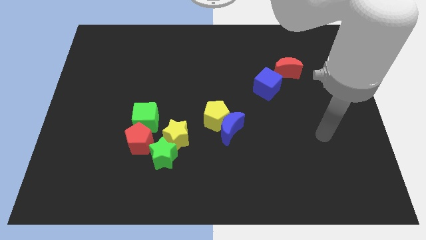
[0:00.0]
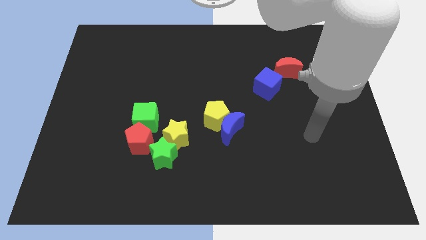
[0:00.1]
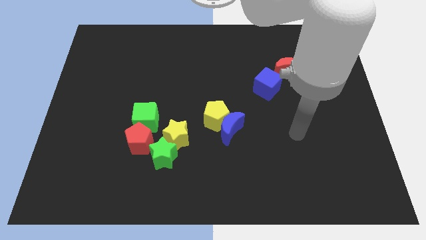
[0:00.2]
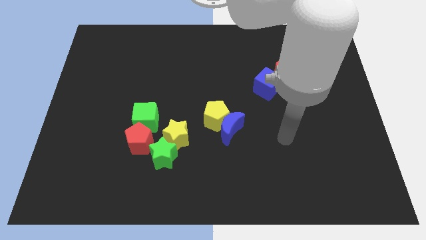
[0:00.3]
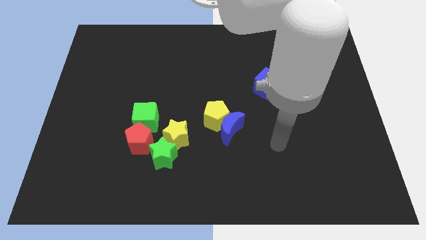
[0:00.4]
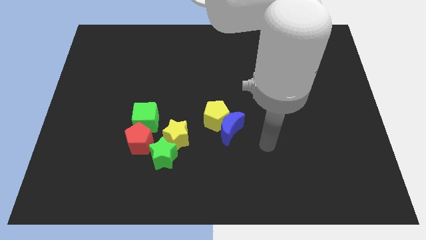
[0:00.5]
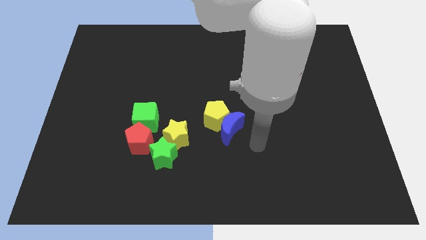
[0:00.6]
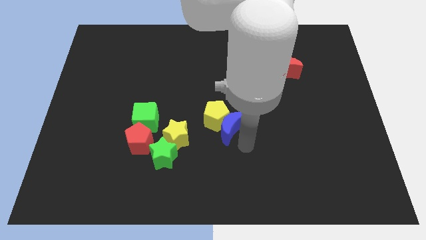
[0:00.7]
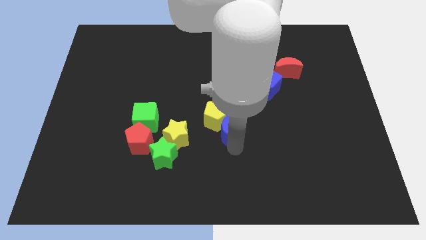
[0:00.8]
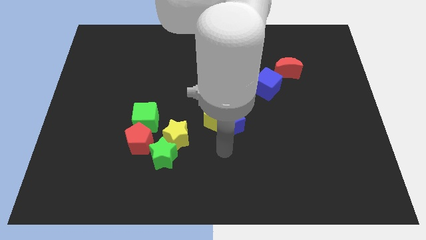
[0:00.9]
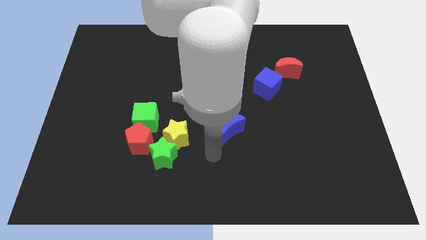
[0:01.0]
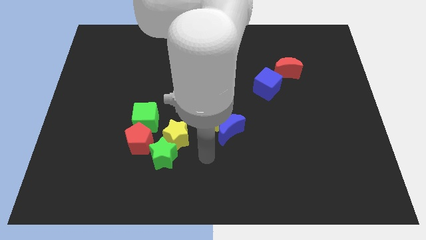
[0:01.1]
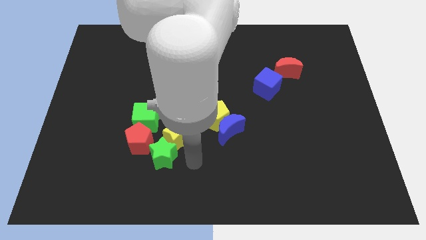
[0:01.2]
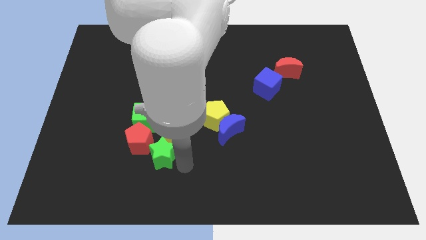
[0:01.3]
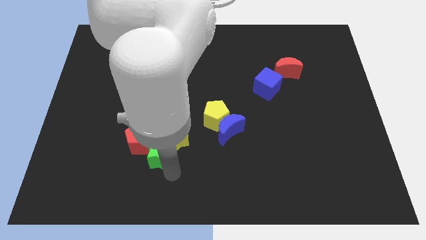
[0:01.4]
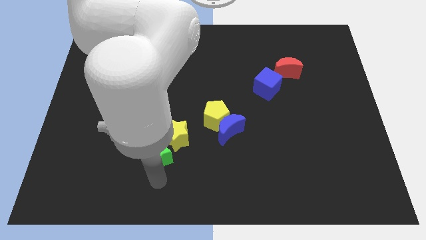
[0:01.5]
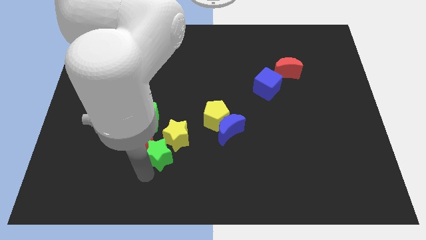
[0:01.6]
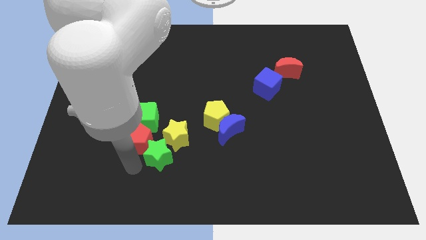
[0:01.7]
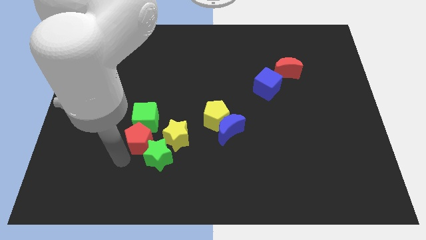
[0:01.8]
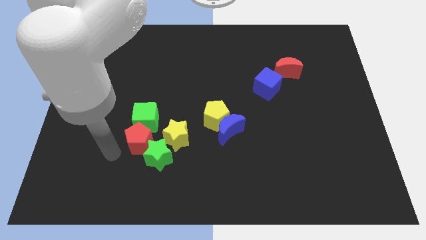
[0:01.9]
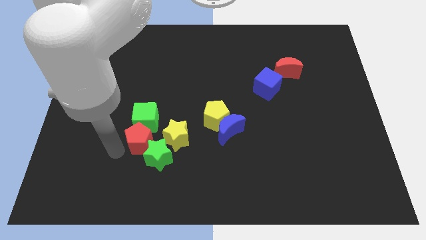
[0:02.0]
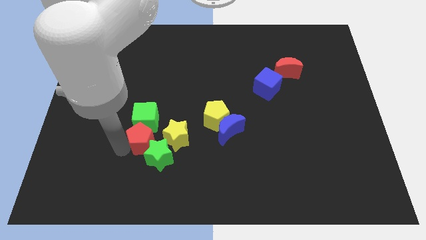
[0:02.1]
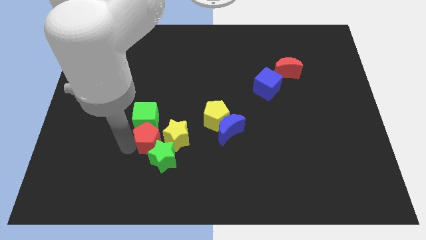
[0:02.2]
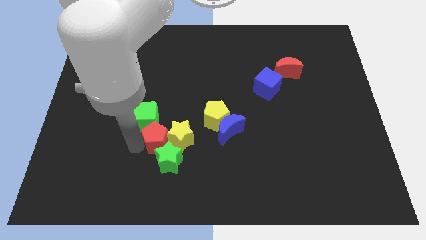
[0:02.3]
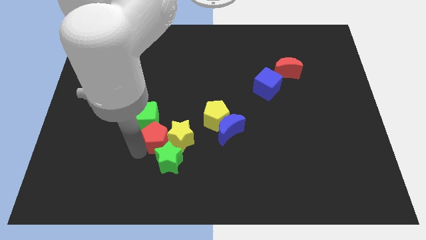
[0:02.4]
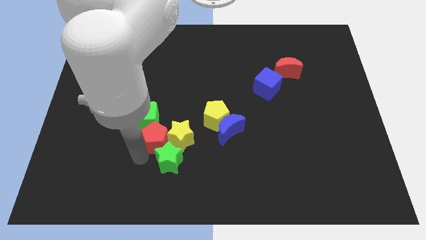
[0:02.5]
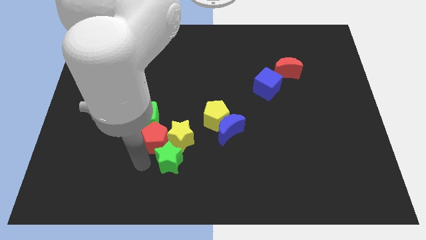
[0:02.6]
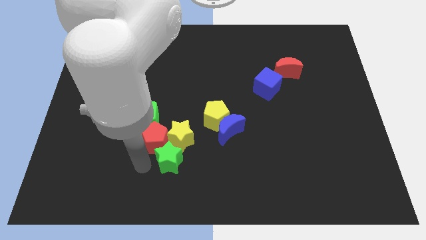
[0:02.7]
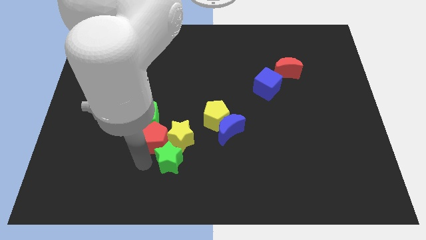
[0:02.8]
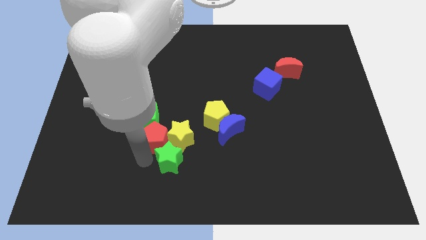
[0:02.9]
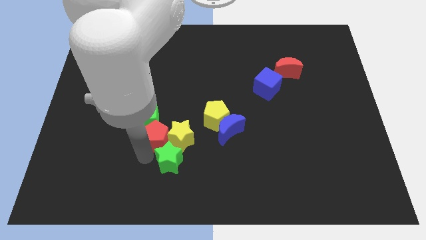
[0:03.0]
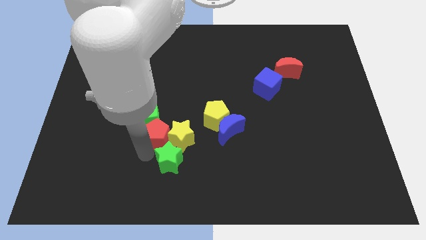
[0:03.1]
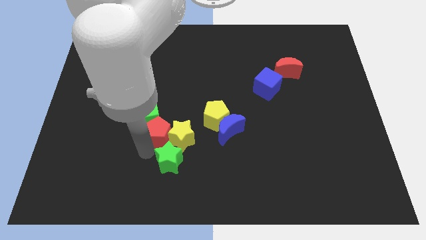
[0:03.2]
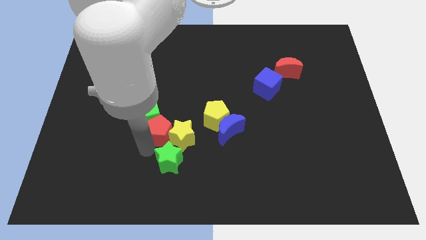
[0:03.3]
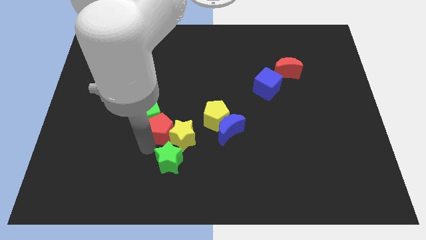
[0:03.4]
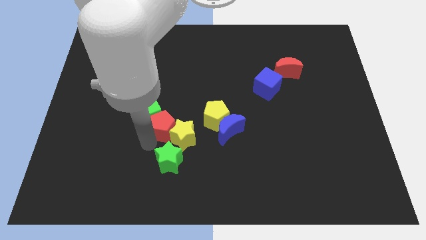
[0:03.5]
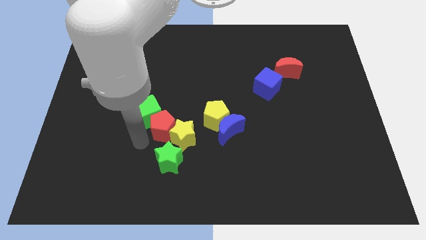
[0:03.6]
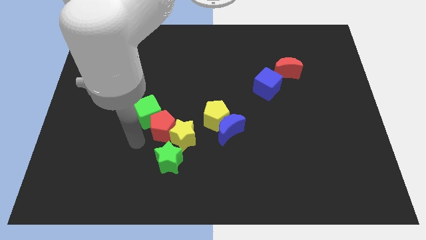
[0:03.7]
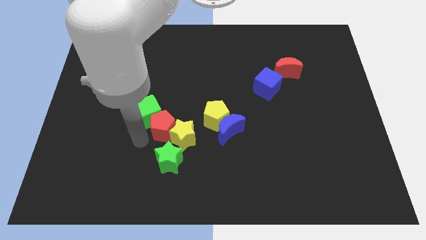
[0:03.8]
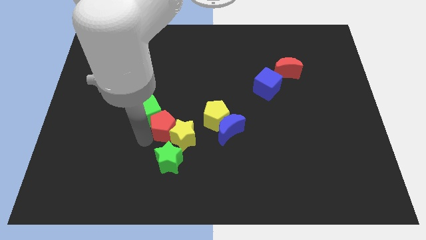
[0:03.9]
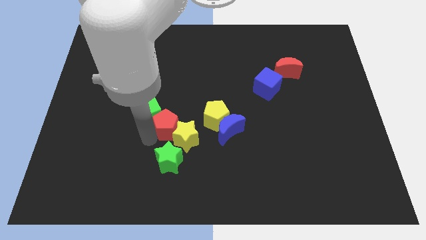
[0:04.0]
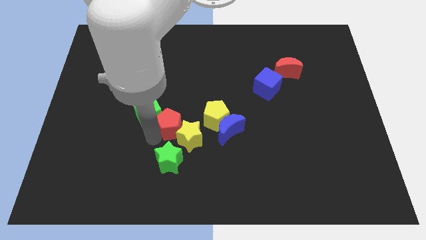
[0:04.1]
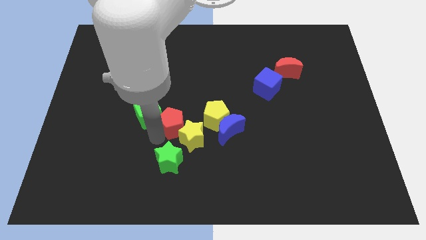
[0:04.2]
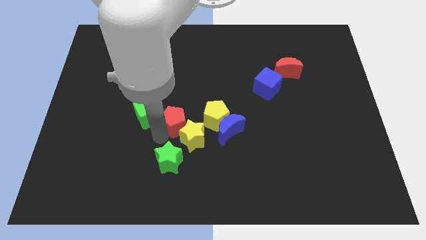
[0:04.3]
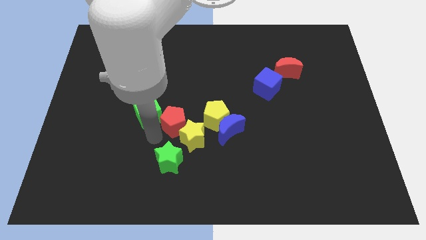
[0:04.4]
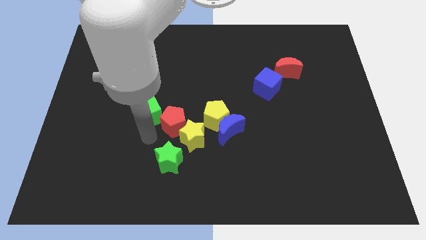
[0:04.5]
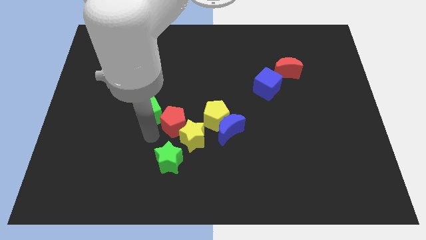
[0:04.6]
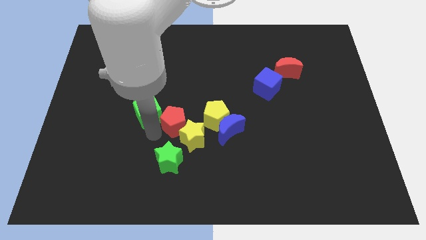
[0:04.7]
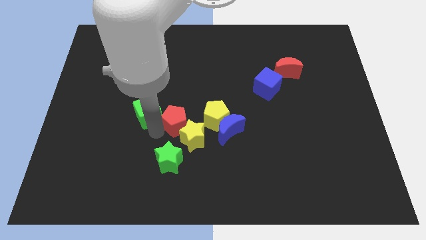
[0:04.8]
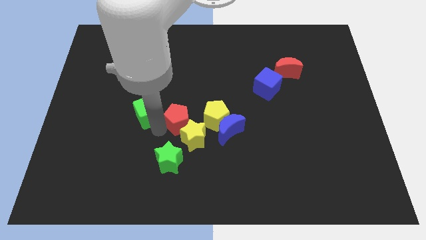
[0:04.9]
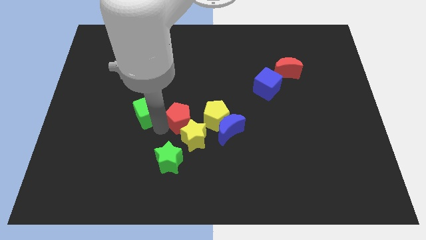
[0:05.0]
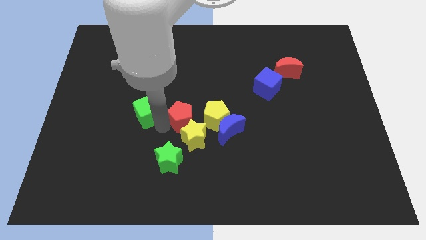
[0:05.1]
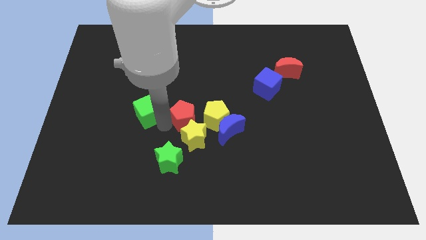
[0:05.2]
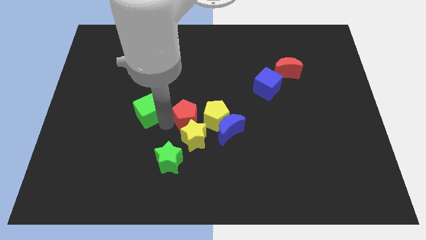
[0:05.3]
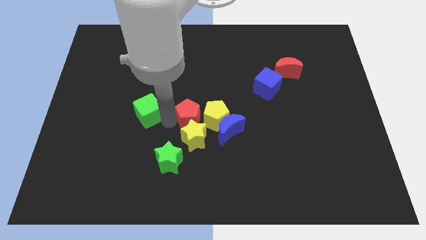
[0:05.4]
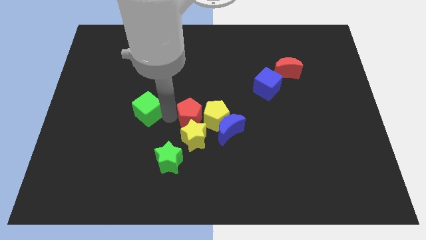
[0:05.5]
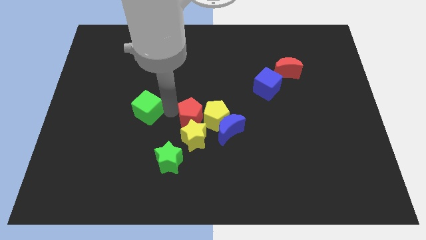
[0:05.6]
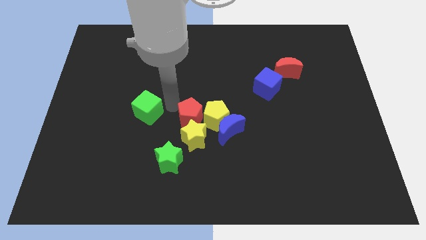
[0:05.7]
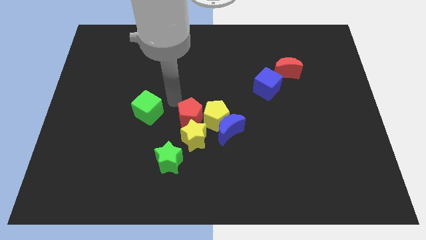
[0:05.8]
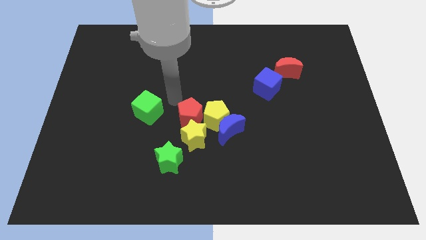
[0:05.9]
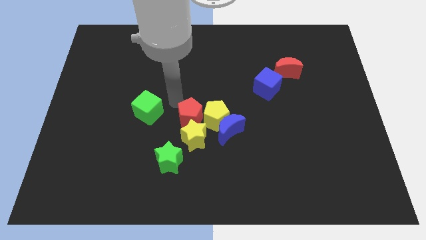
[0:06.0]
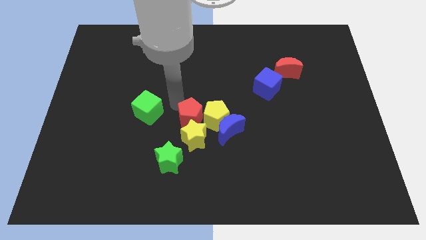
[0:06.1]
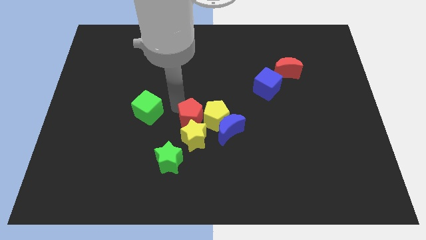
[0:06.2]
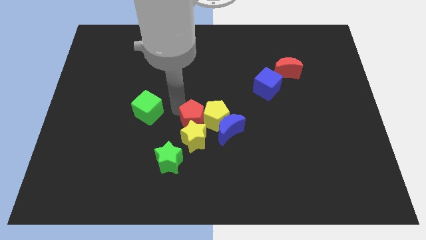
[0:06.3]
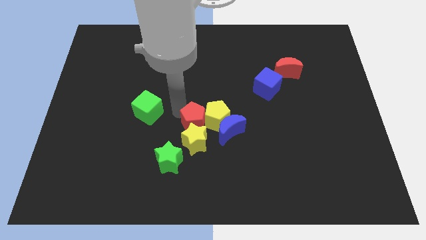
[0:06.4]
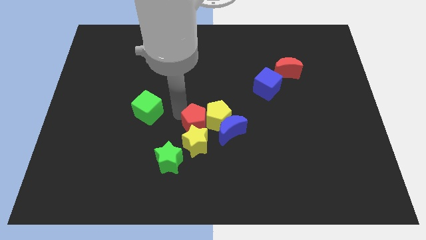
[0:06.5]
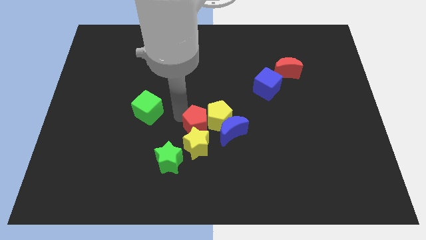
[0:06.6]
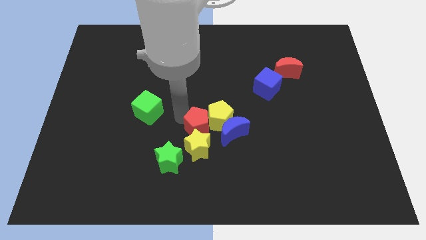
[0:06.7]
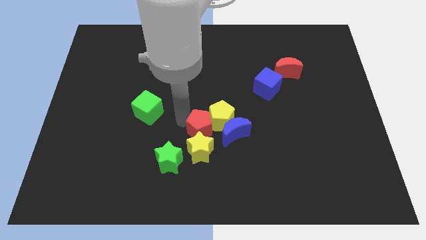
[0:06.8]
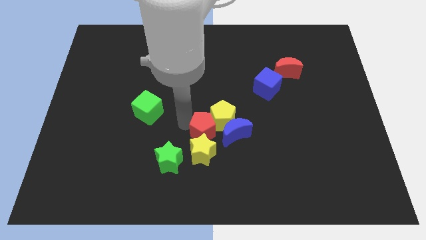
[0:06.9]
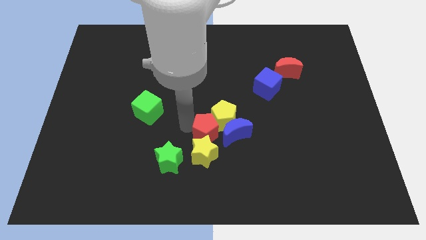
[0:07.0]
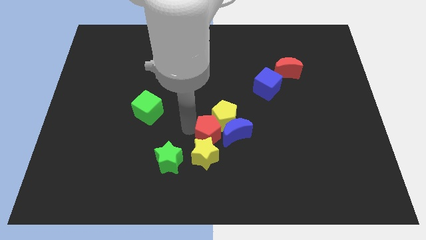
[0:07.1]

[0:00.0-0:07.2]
slide the red pentagon next to the blue moon
